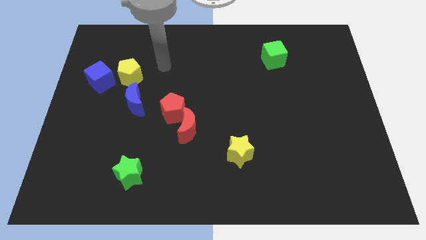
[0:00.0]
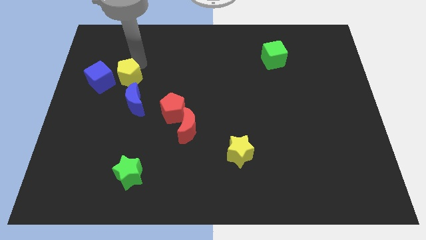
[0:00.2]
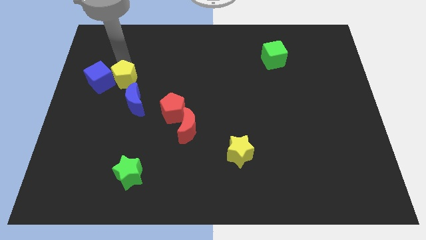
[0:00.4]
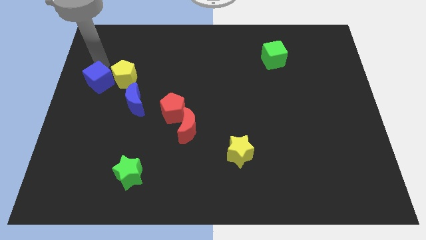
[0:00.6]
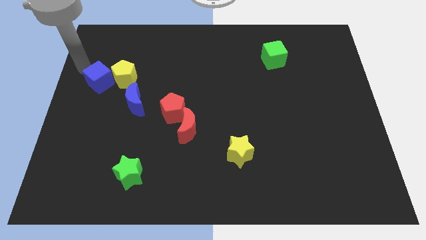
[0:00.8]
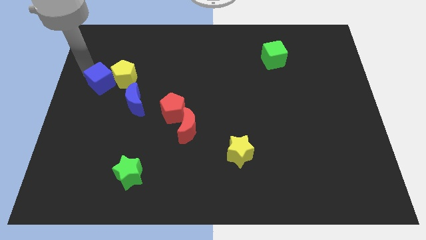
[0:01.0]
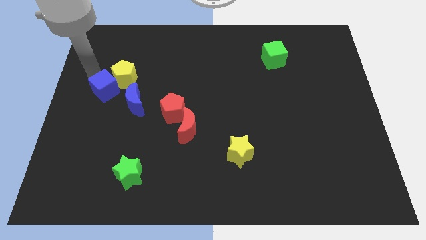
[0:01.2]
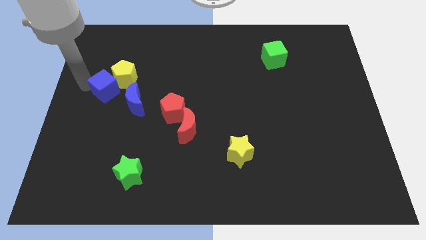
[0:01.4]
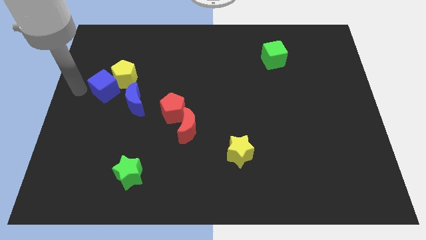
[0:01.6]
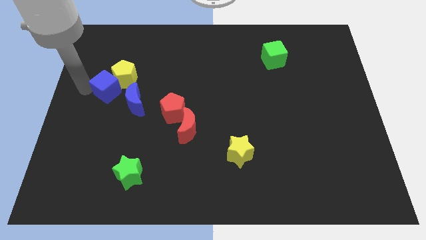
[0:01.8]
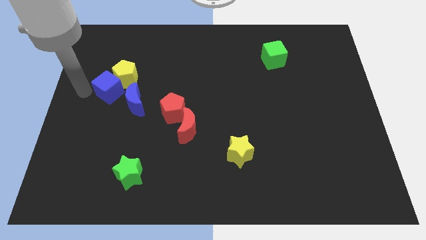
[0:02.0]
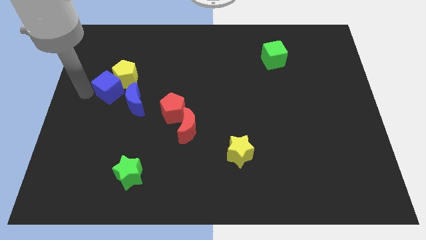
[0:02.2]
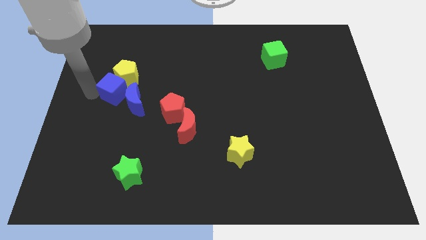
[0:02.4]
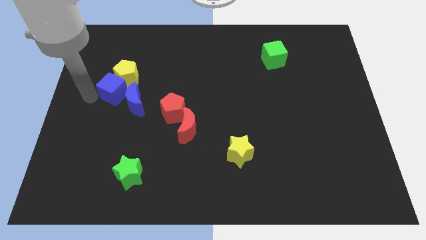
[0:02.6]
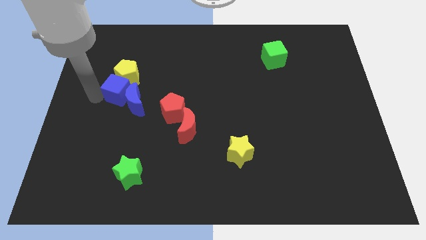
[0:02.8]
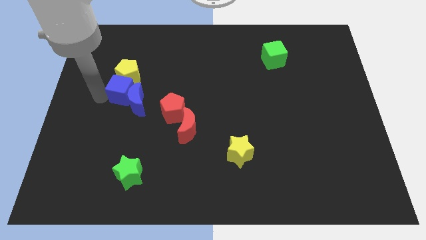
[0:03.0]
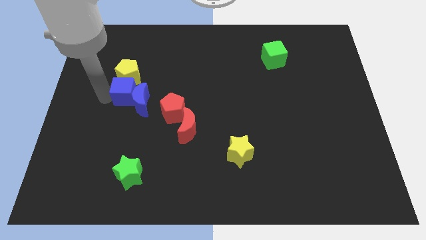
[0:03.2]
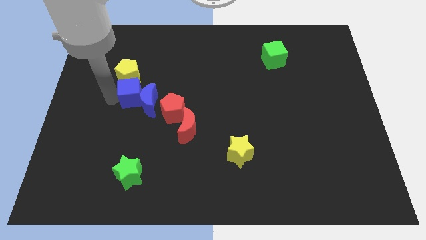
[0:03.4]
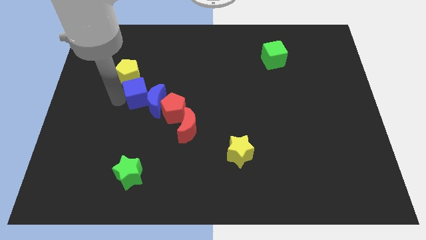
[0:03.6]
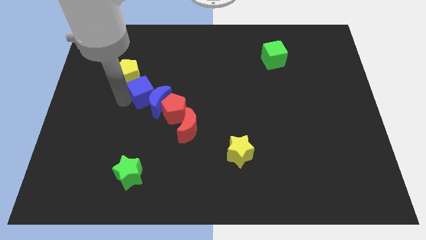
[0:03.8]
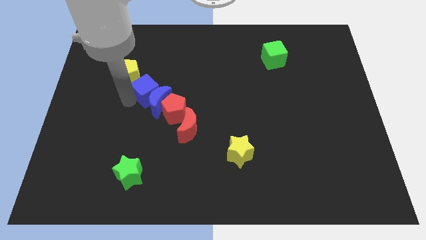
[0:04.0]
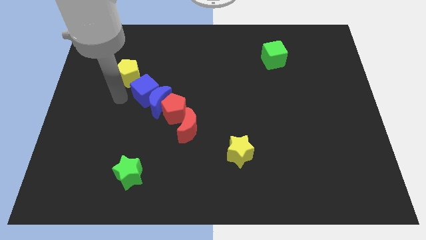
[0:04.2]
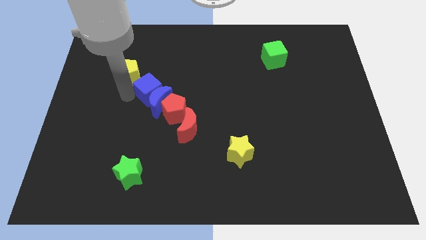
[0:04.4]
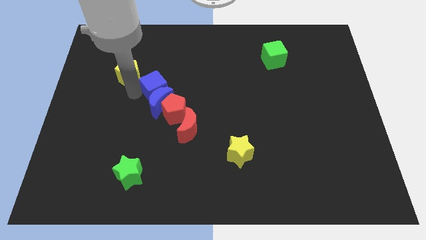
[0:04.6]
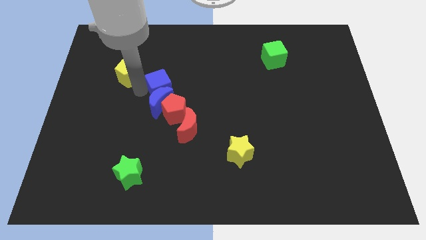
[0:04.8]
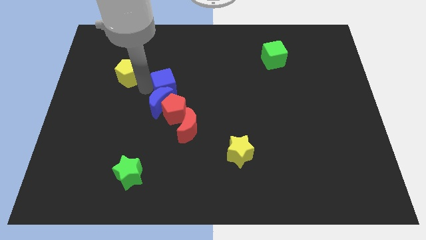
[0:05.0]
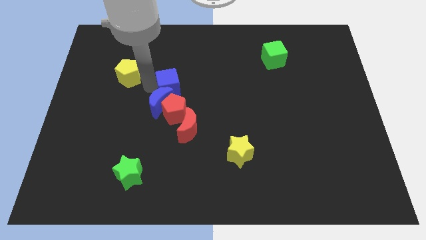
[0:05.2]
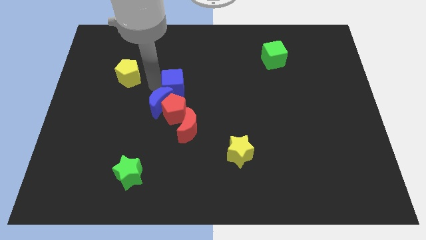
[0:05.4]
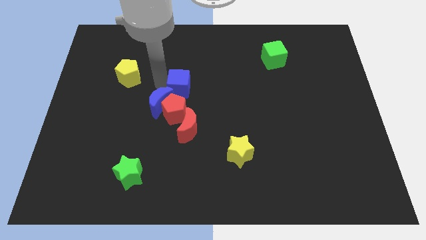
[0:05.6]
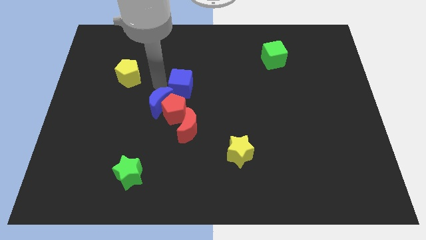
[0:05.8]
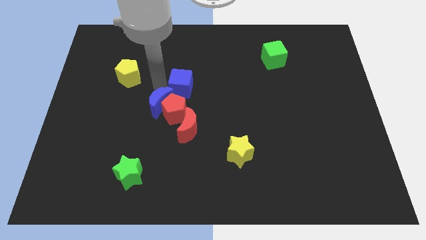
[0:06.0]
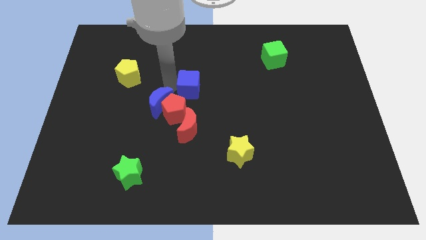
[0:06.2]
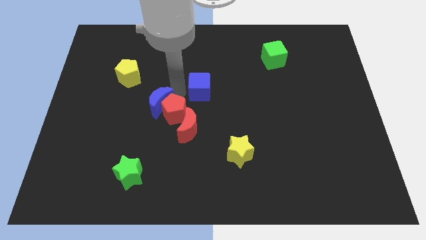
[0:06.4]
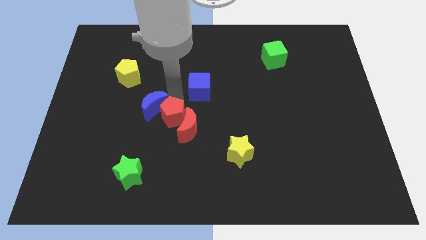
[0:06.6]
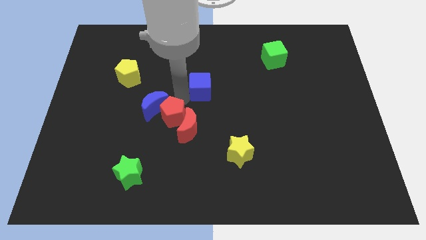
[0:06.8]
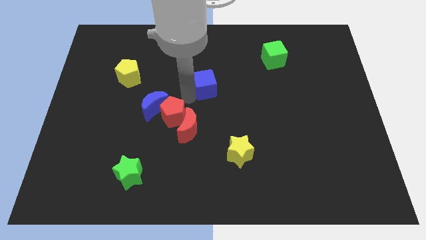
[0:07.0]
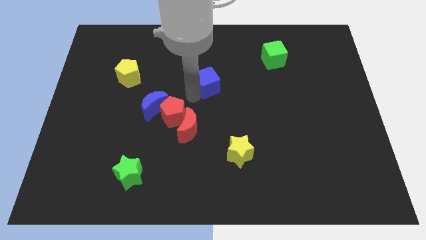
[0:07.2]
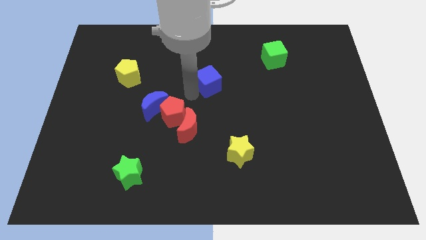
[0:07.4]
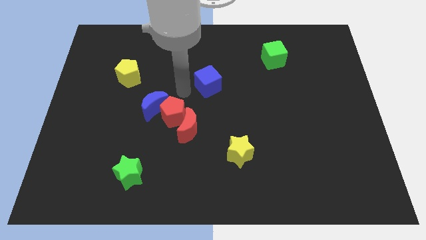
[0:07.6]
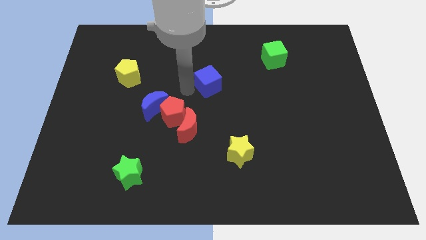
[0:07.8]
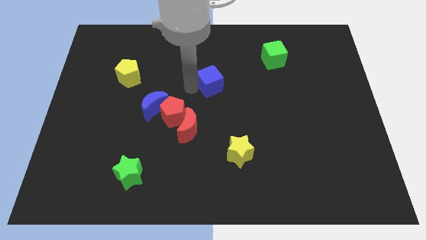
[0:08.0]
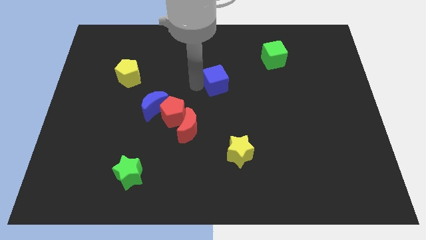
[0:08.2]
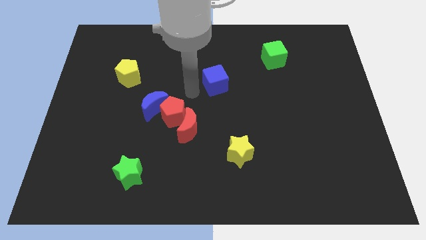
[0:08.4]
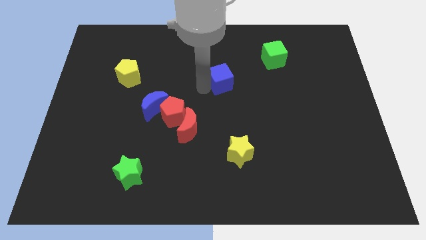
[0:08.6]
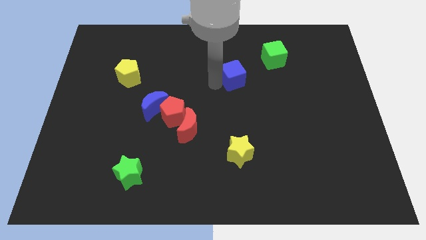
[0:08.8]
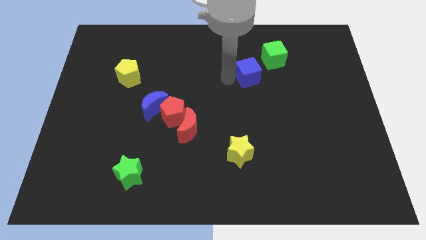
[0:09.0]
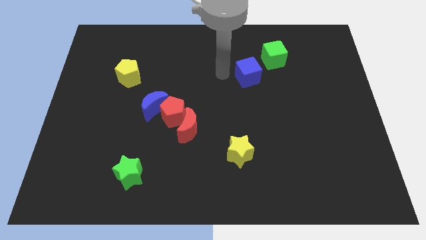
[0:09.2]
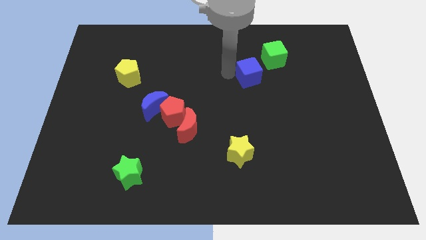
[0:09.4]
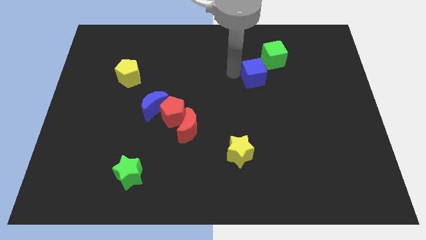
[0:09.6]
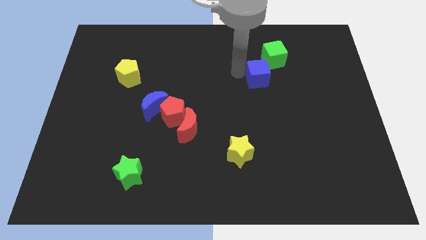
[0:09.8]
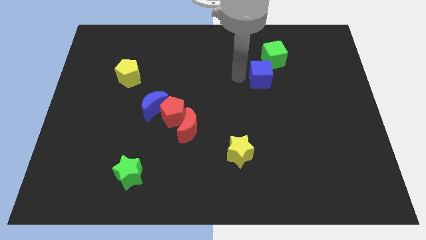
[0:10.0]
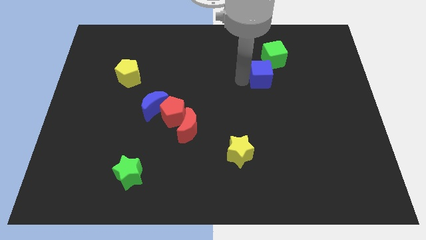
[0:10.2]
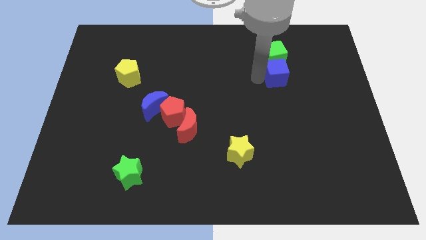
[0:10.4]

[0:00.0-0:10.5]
move the blue cube diagonally down and to the right of the green cube

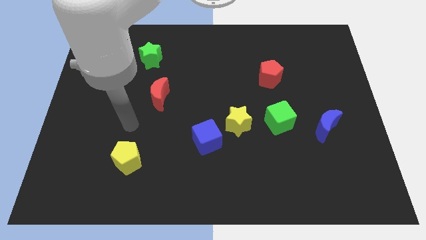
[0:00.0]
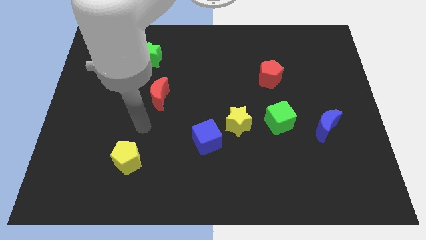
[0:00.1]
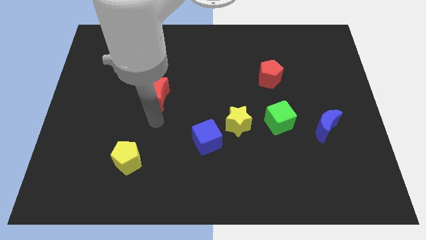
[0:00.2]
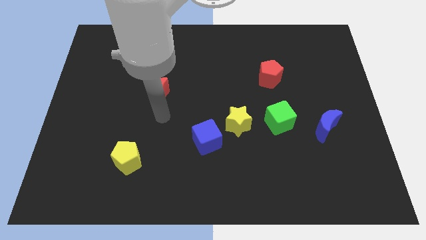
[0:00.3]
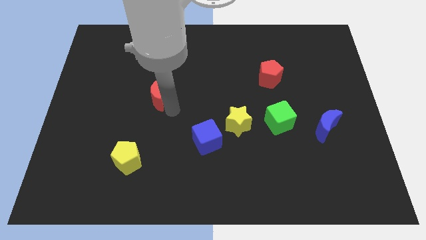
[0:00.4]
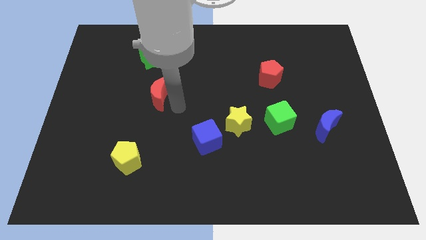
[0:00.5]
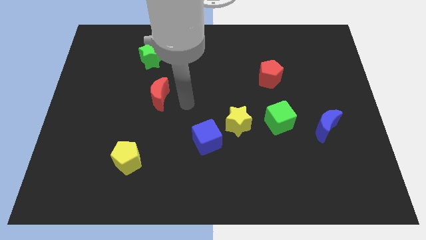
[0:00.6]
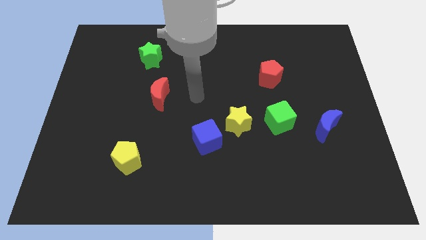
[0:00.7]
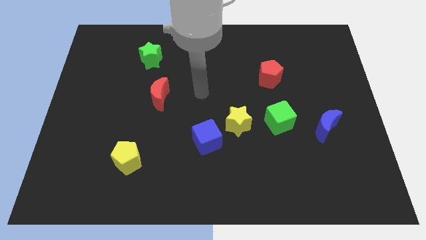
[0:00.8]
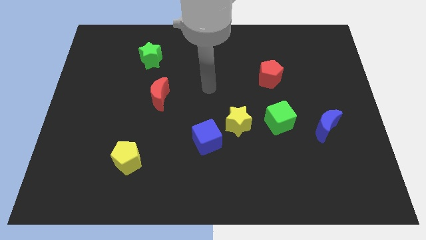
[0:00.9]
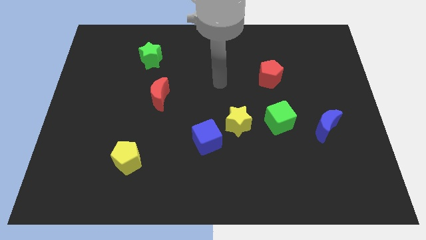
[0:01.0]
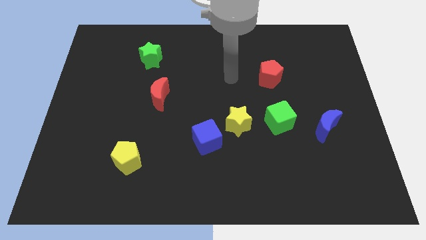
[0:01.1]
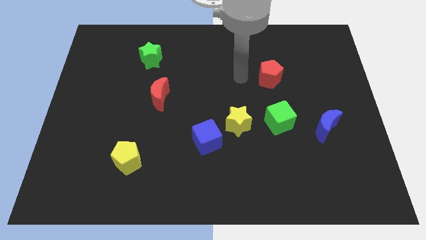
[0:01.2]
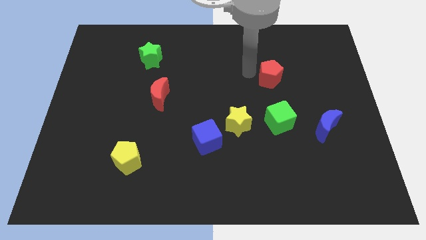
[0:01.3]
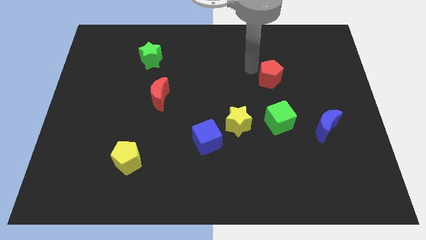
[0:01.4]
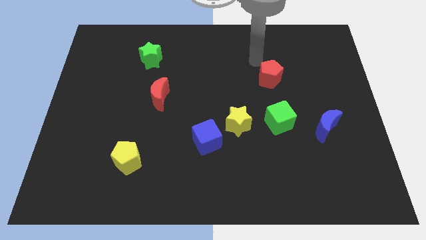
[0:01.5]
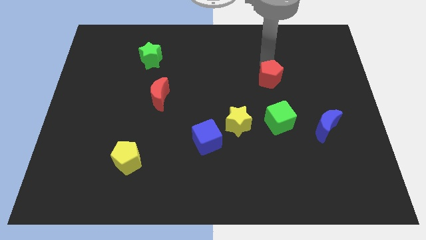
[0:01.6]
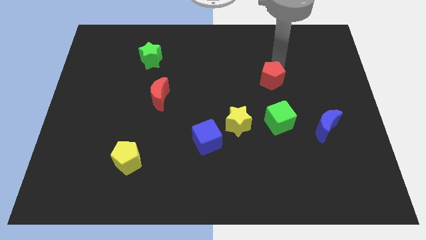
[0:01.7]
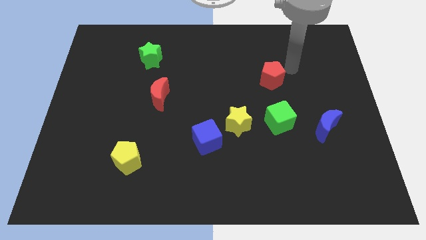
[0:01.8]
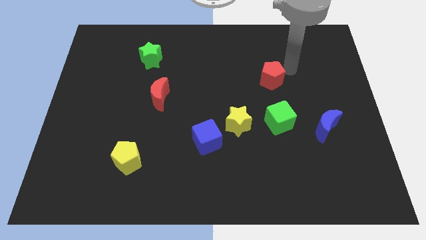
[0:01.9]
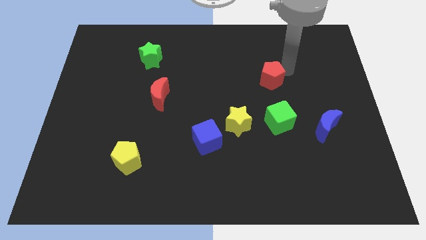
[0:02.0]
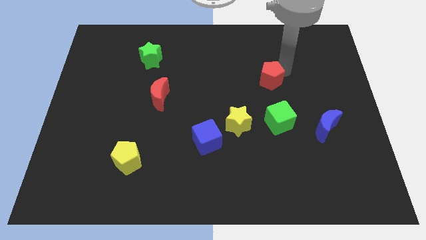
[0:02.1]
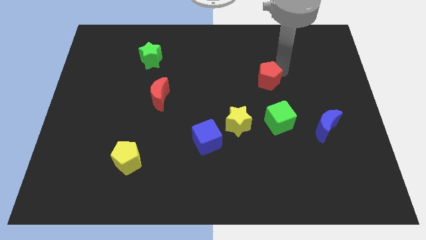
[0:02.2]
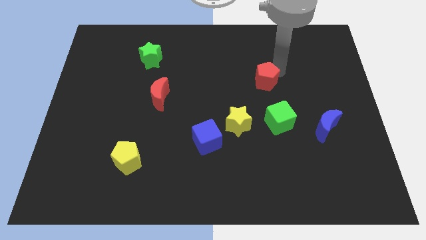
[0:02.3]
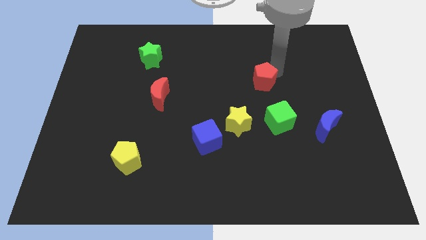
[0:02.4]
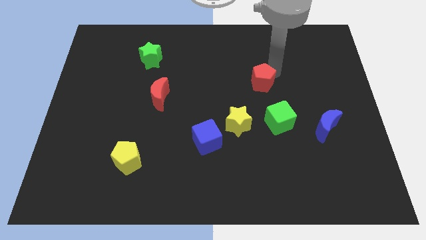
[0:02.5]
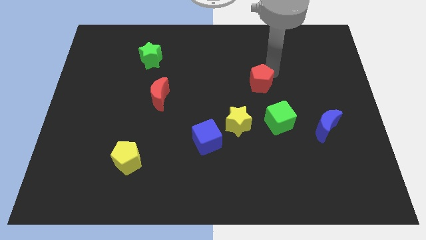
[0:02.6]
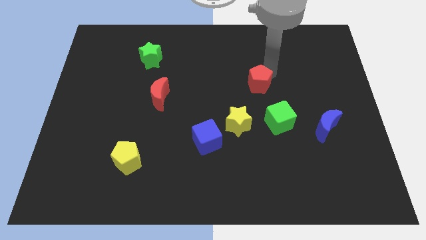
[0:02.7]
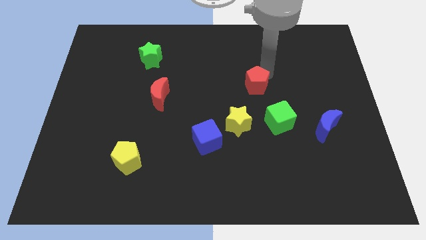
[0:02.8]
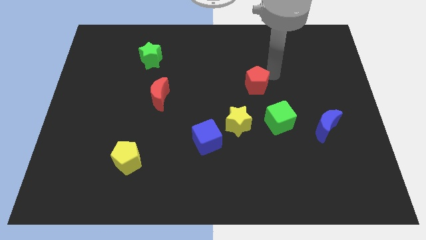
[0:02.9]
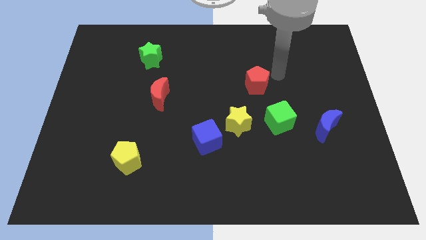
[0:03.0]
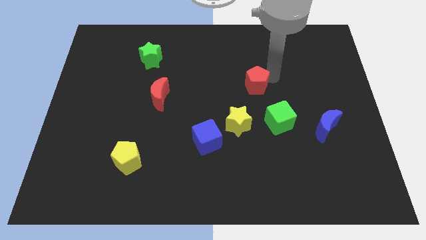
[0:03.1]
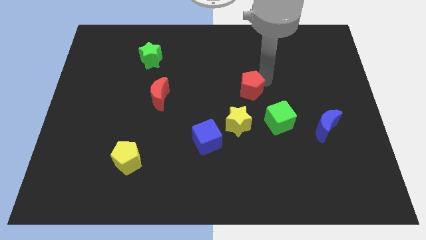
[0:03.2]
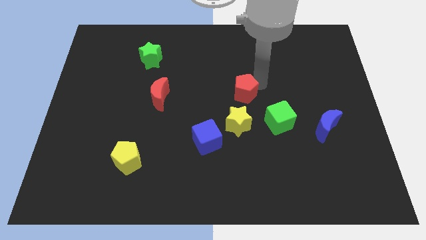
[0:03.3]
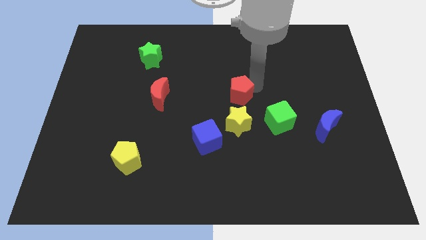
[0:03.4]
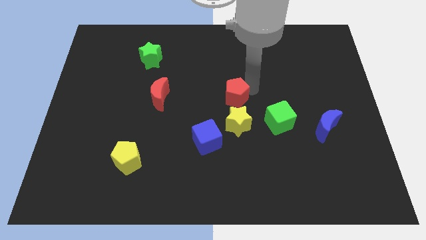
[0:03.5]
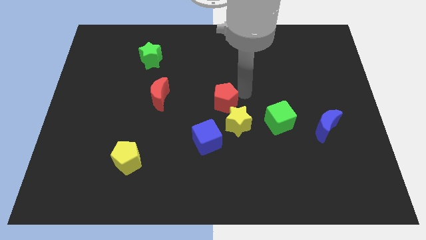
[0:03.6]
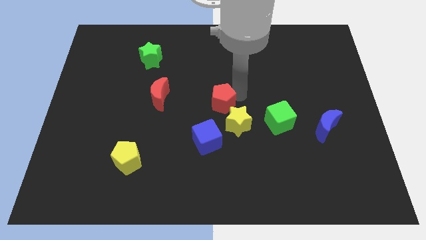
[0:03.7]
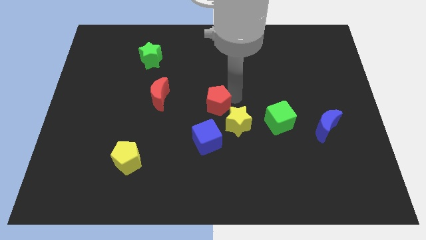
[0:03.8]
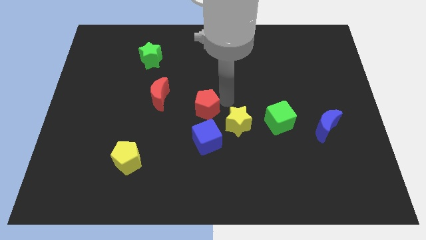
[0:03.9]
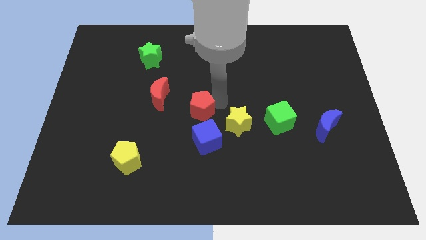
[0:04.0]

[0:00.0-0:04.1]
put the red pentagon diagonally down and to the right of the red moon
